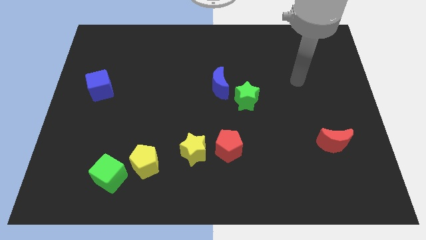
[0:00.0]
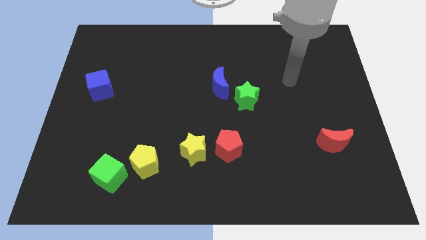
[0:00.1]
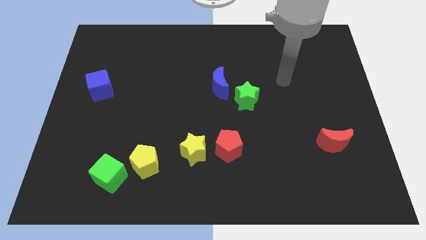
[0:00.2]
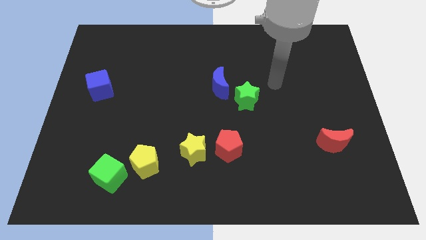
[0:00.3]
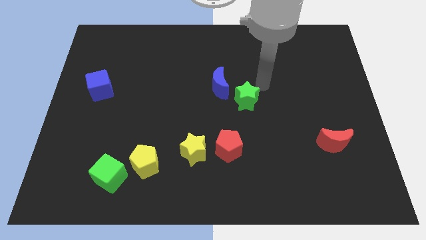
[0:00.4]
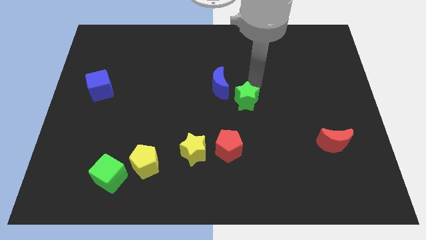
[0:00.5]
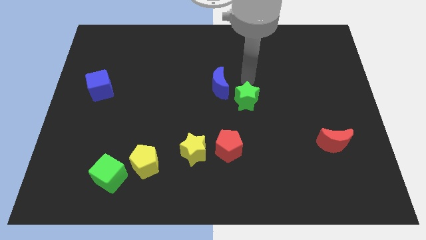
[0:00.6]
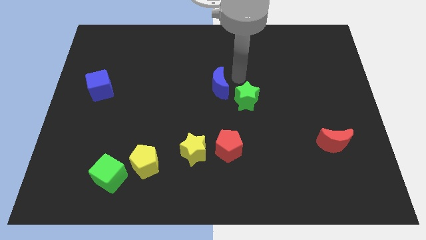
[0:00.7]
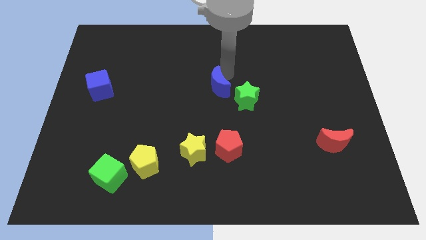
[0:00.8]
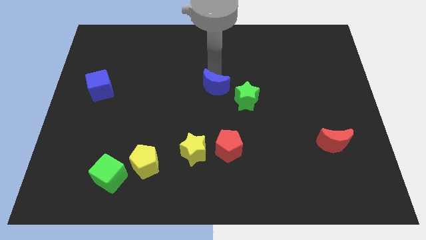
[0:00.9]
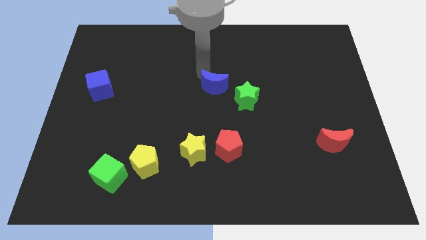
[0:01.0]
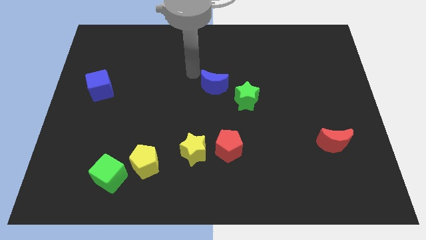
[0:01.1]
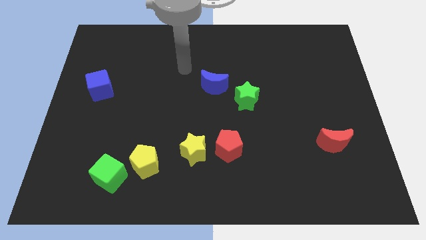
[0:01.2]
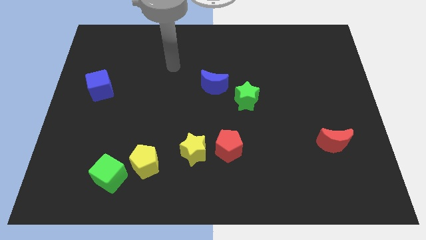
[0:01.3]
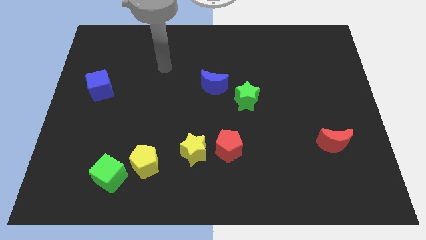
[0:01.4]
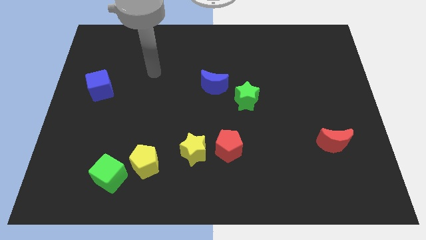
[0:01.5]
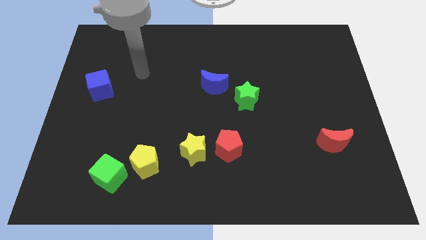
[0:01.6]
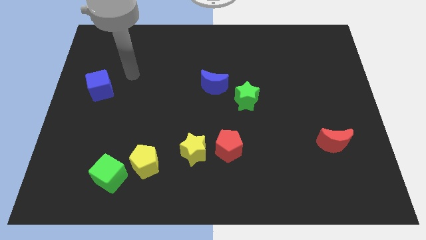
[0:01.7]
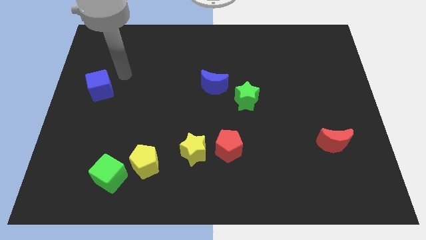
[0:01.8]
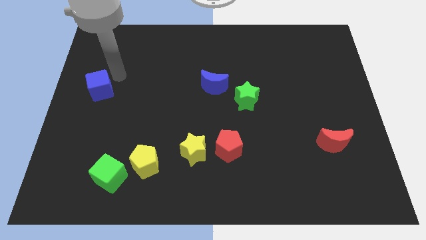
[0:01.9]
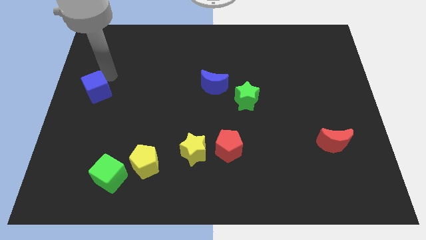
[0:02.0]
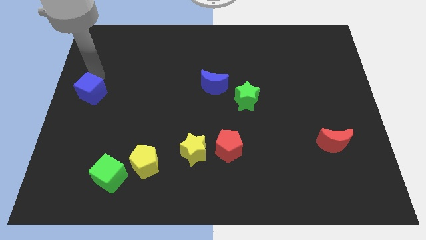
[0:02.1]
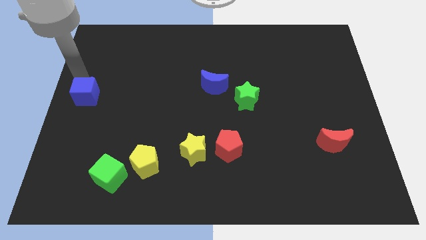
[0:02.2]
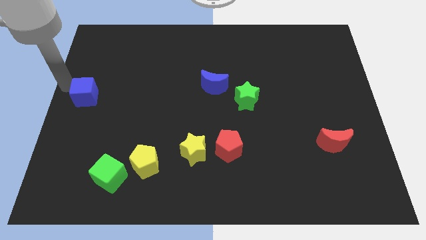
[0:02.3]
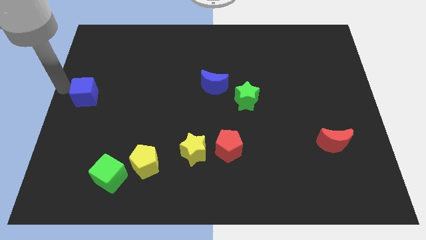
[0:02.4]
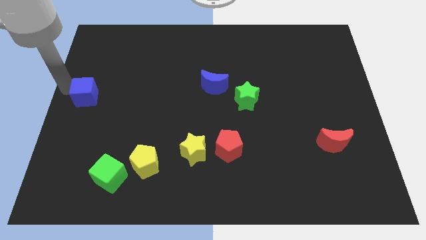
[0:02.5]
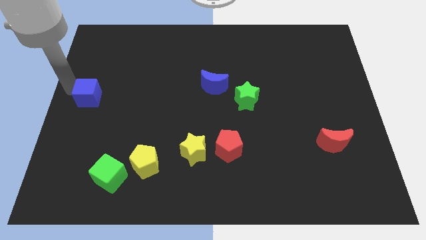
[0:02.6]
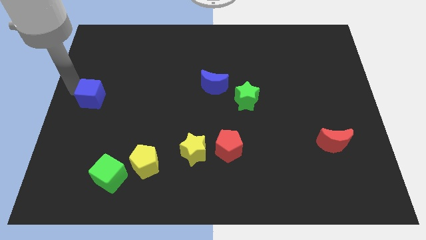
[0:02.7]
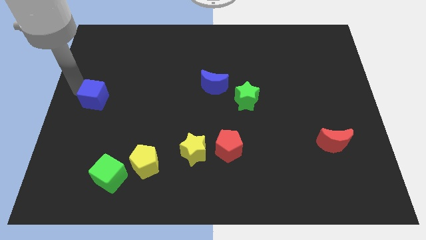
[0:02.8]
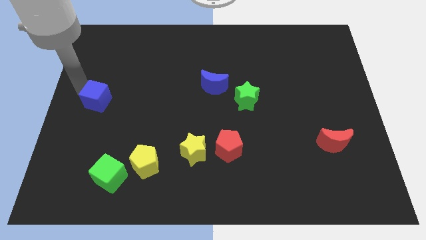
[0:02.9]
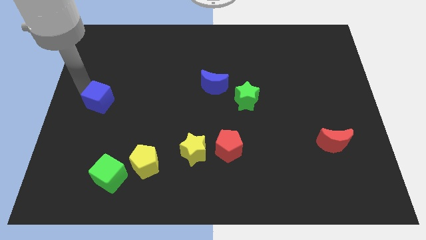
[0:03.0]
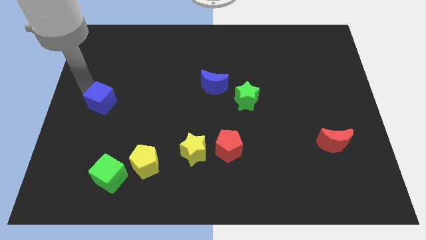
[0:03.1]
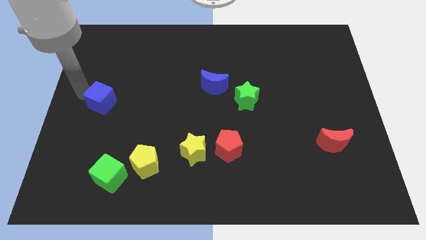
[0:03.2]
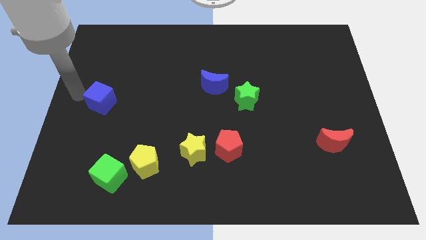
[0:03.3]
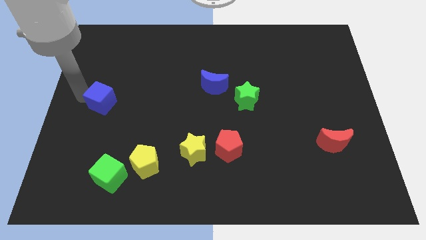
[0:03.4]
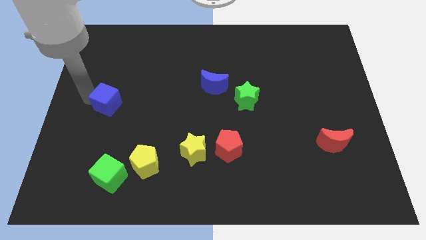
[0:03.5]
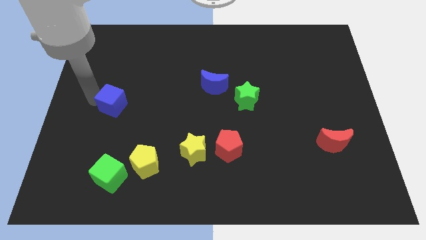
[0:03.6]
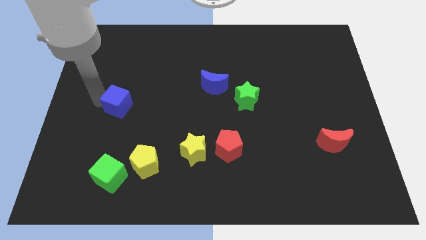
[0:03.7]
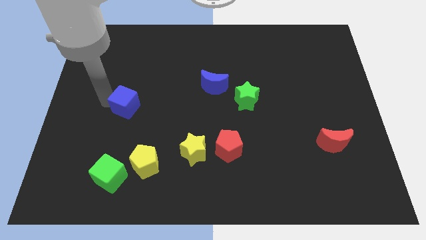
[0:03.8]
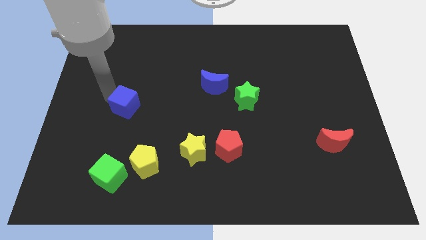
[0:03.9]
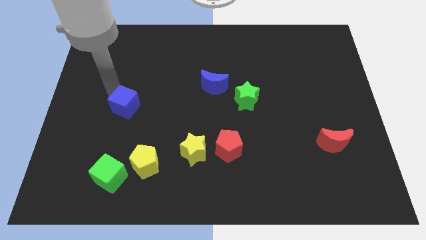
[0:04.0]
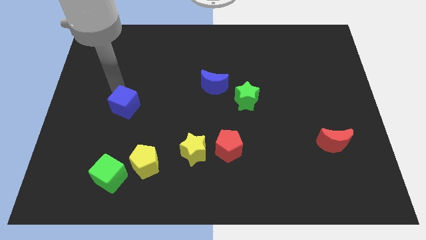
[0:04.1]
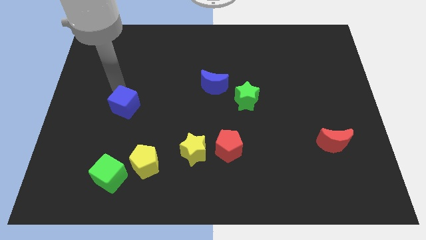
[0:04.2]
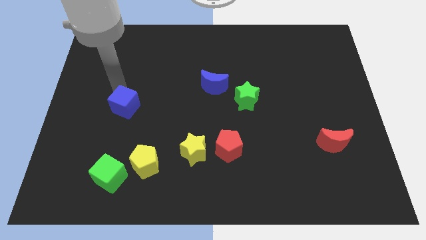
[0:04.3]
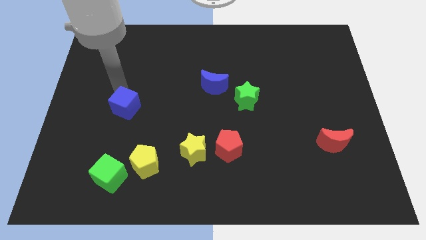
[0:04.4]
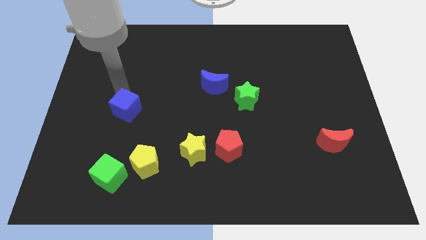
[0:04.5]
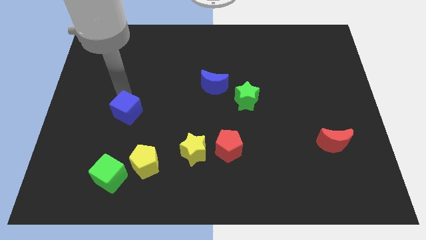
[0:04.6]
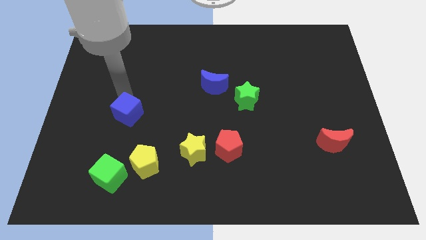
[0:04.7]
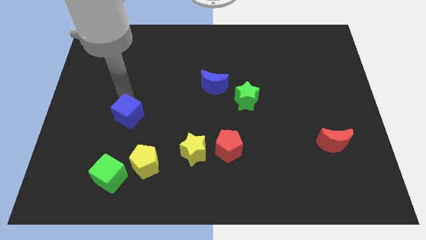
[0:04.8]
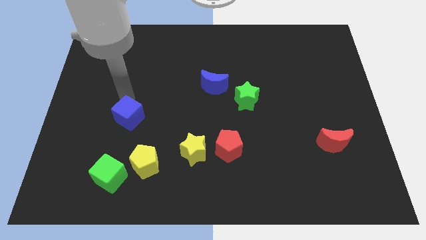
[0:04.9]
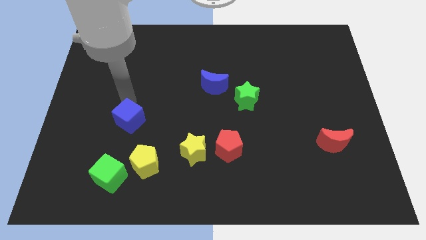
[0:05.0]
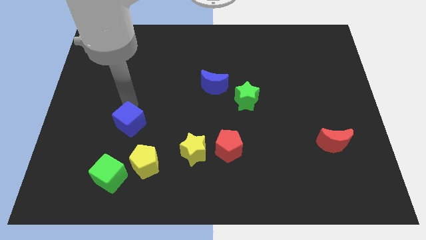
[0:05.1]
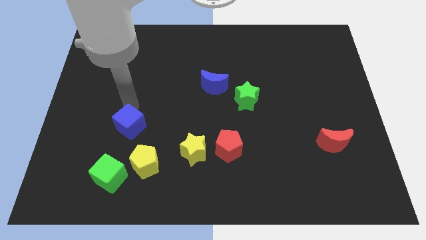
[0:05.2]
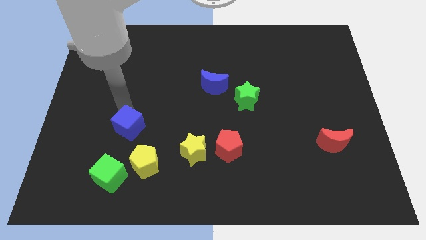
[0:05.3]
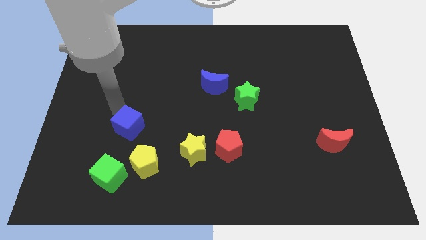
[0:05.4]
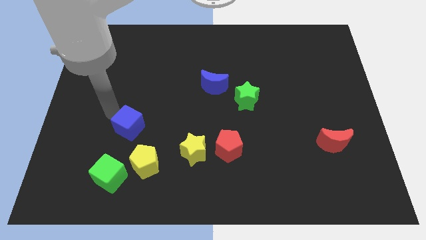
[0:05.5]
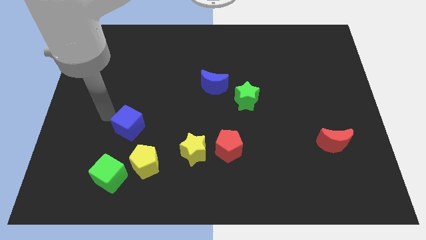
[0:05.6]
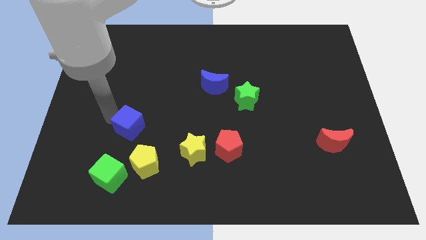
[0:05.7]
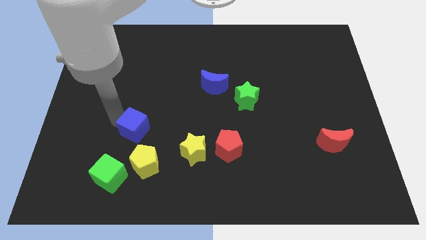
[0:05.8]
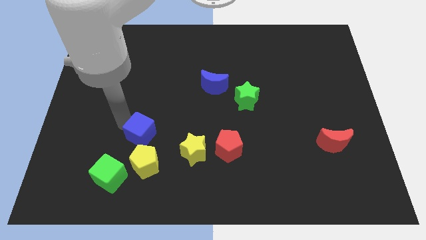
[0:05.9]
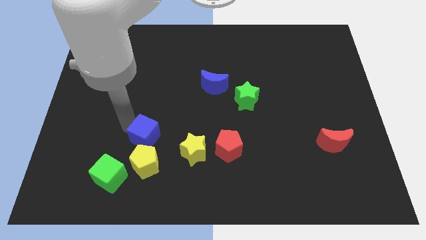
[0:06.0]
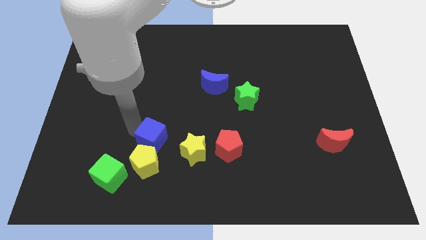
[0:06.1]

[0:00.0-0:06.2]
move the blue cube downwards and right diagonally

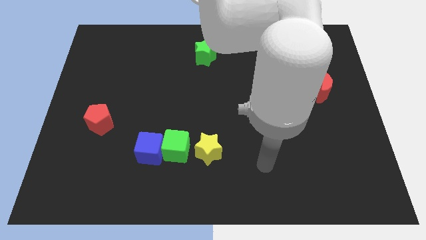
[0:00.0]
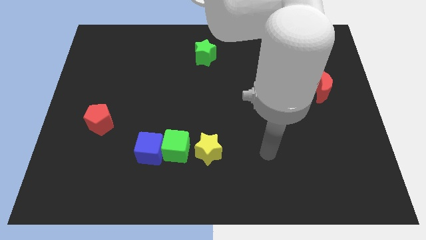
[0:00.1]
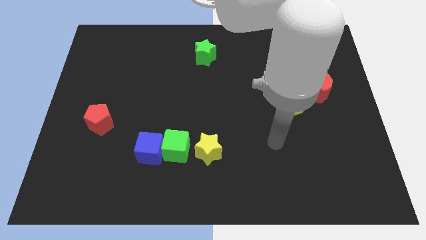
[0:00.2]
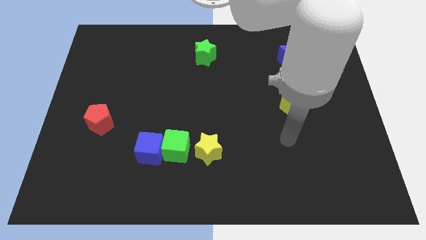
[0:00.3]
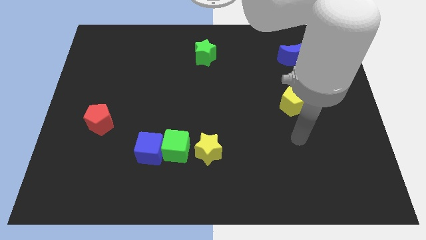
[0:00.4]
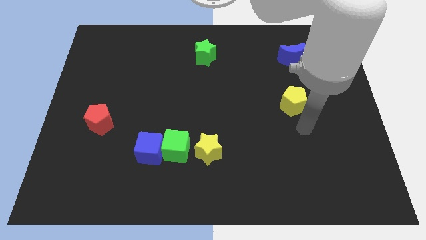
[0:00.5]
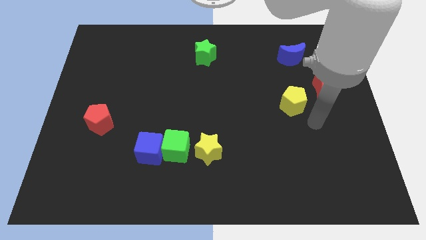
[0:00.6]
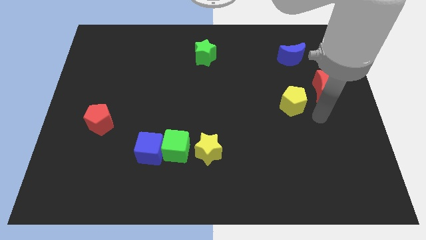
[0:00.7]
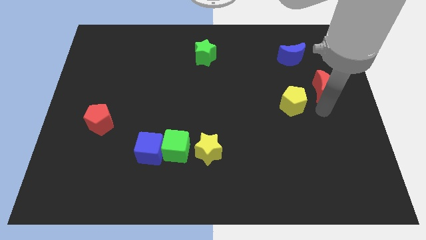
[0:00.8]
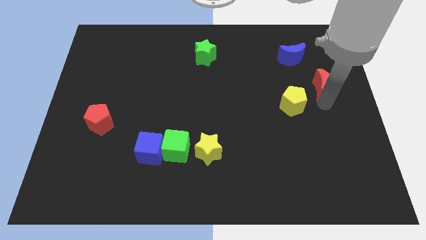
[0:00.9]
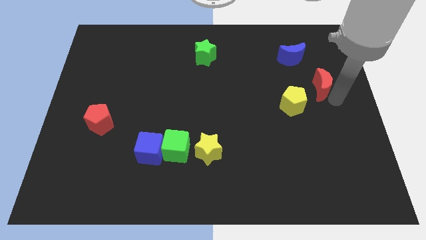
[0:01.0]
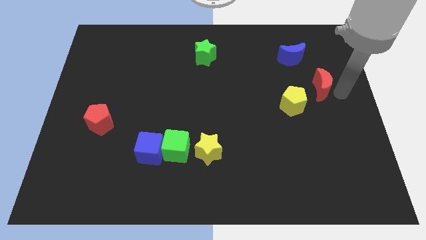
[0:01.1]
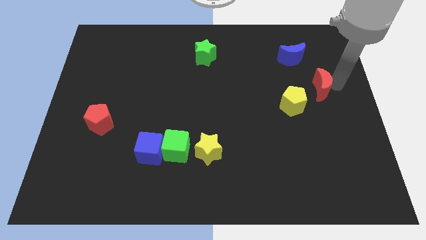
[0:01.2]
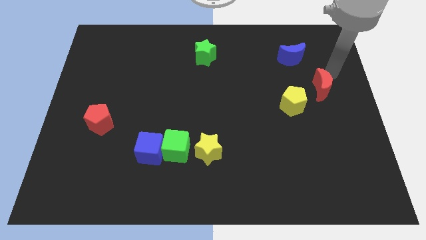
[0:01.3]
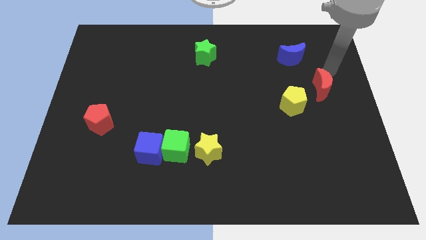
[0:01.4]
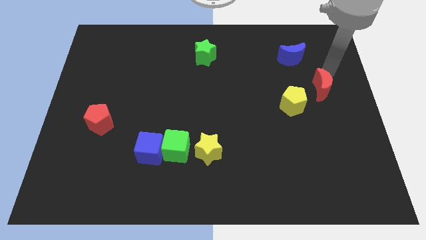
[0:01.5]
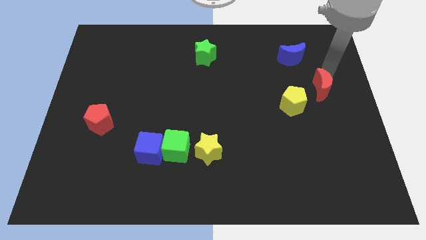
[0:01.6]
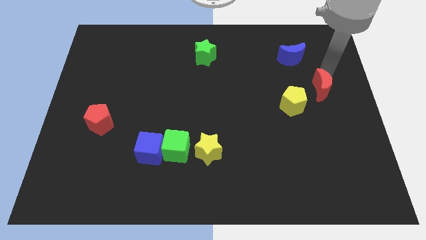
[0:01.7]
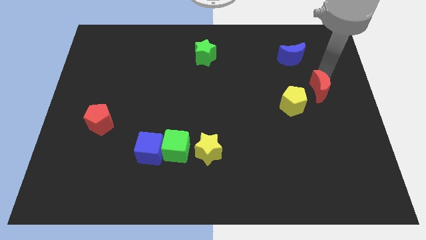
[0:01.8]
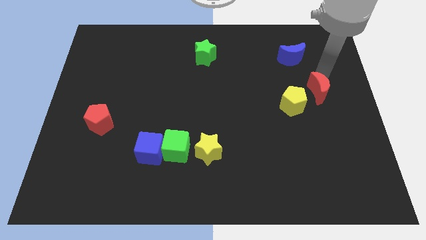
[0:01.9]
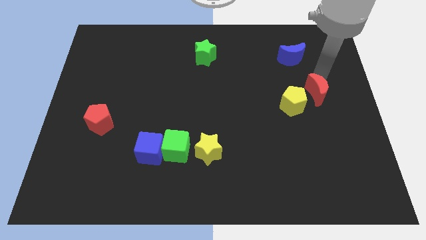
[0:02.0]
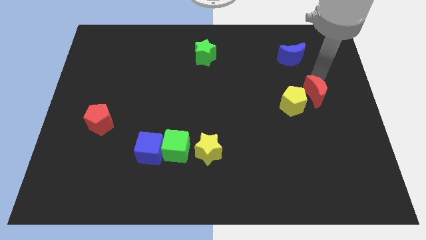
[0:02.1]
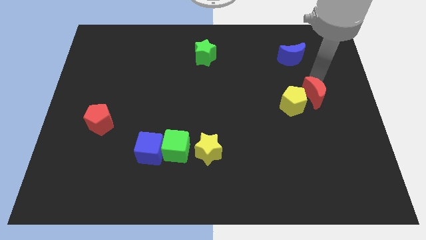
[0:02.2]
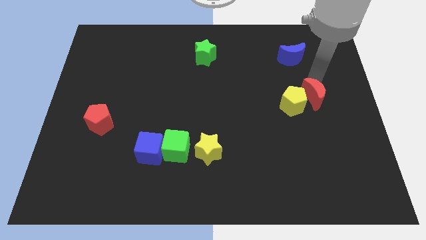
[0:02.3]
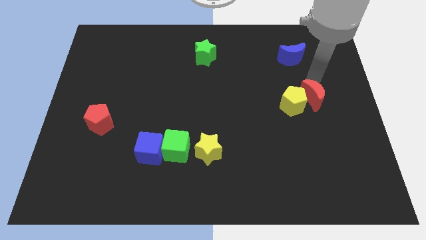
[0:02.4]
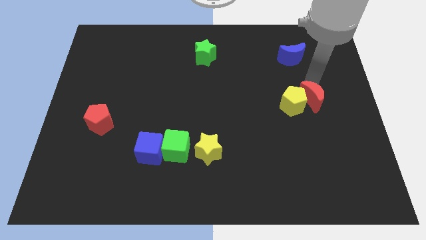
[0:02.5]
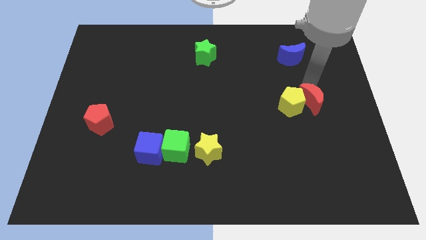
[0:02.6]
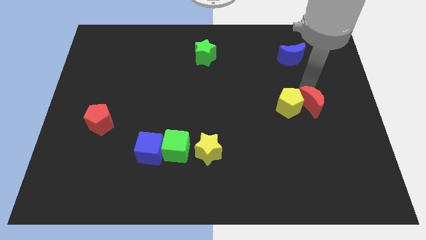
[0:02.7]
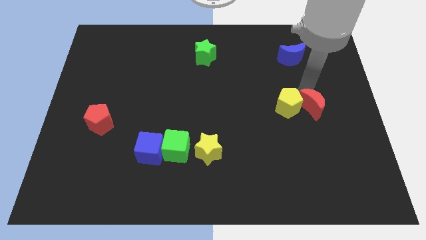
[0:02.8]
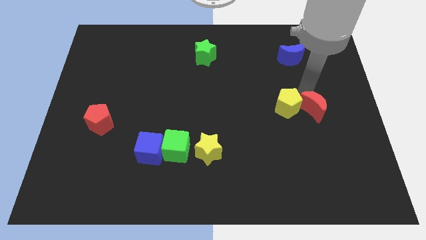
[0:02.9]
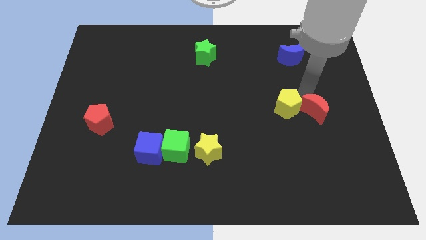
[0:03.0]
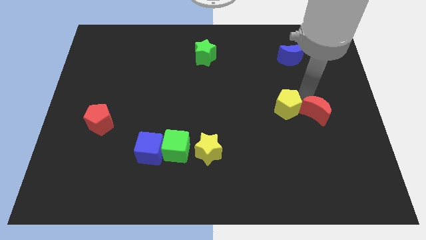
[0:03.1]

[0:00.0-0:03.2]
push the red moon diagonally down and to the left somewhat
